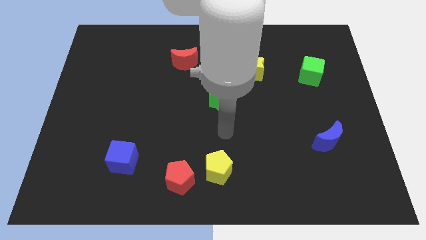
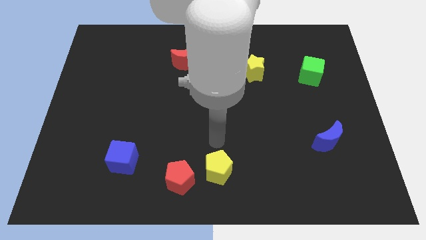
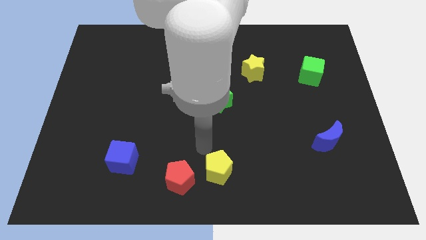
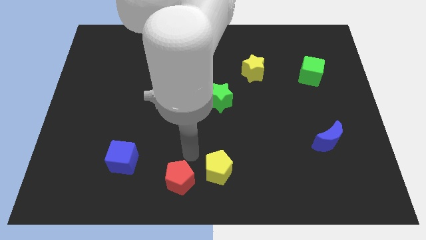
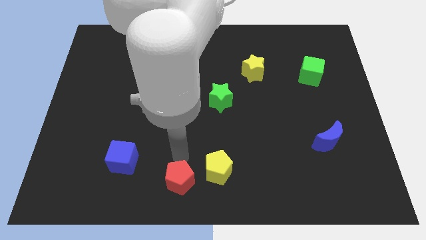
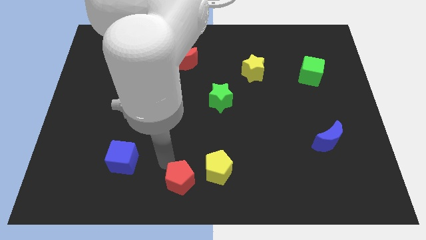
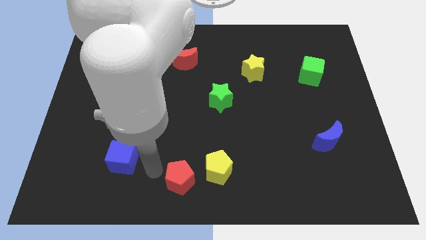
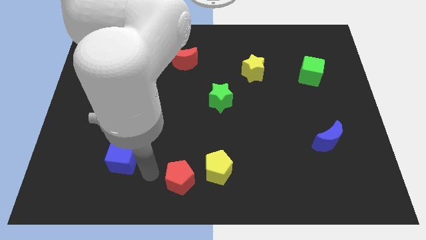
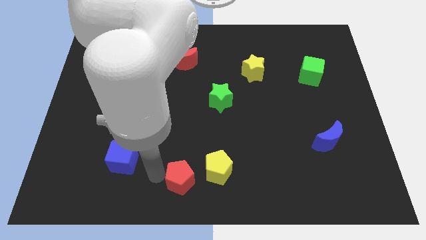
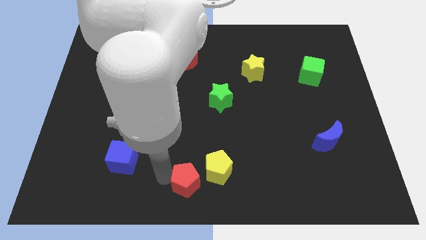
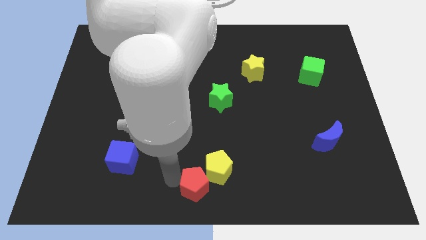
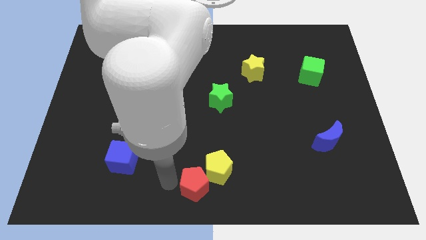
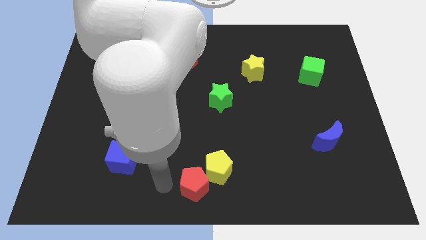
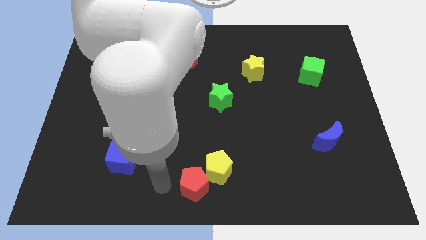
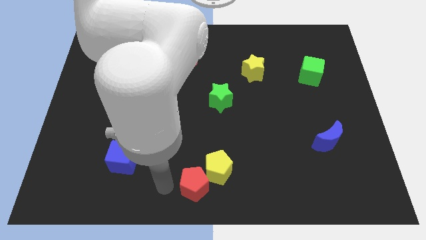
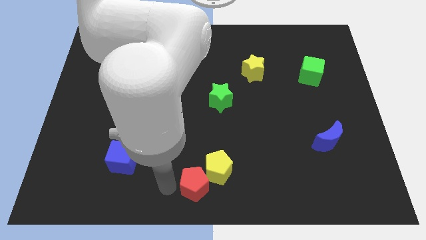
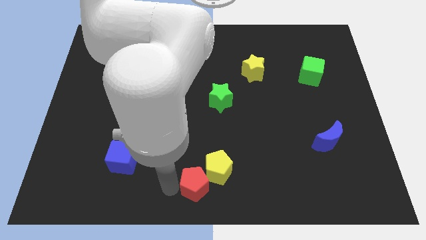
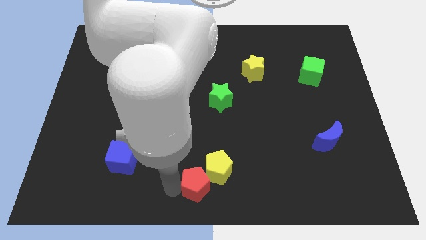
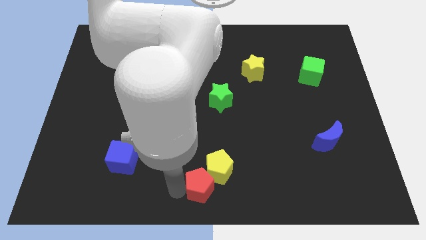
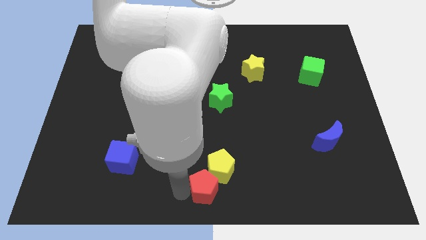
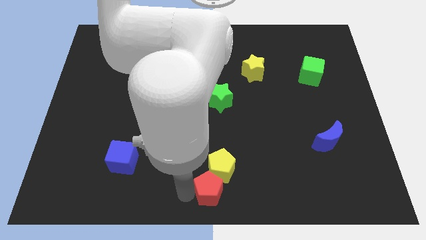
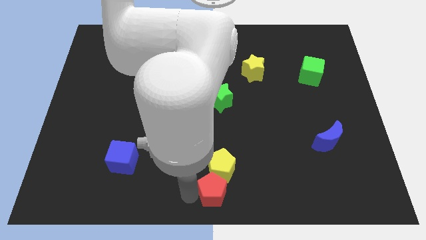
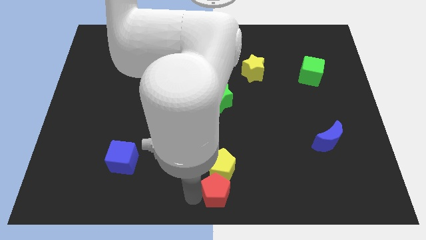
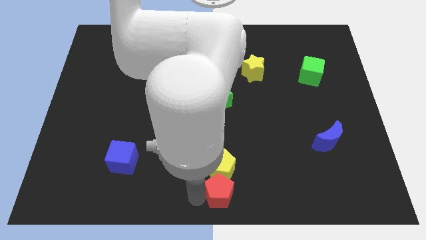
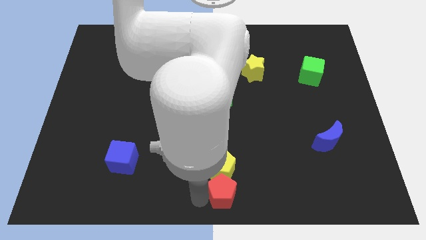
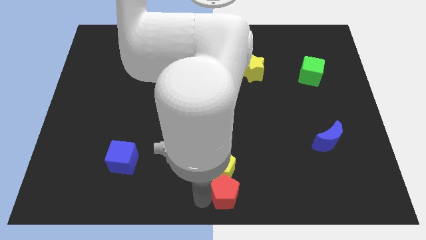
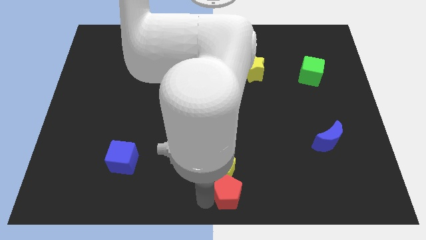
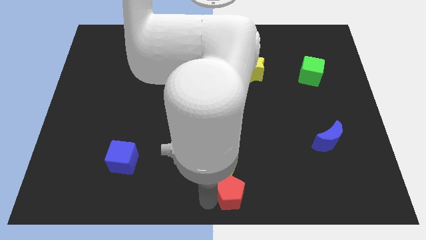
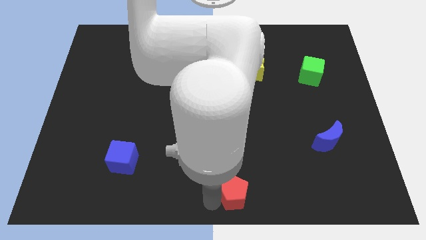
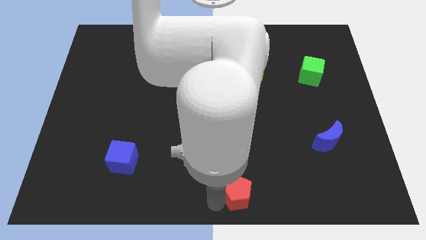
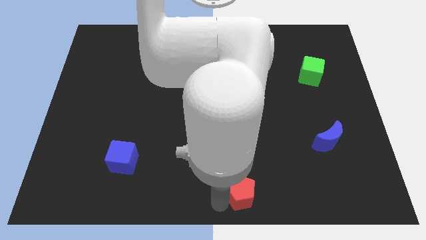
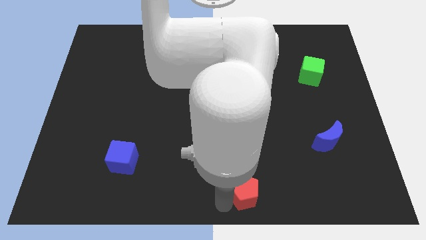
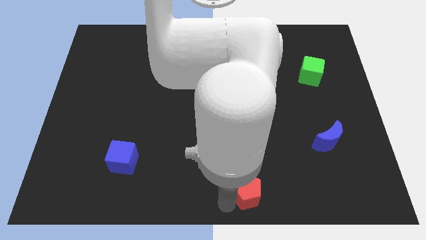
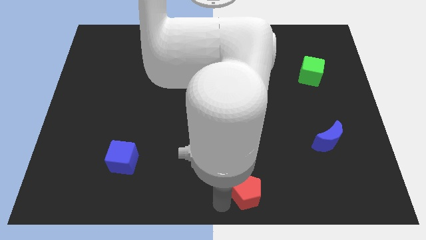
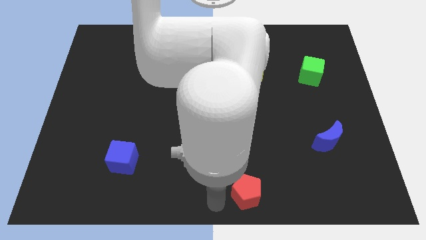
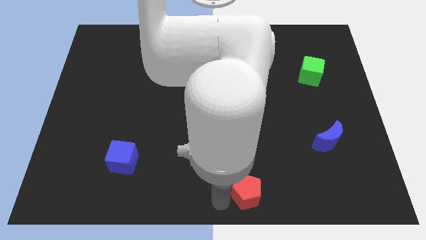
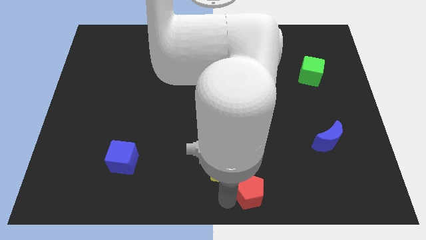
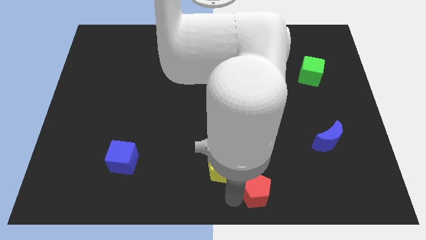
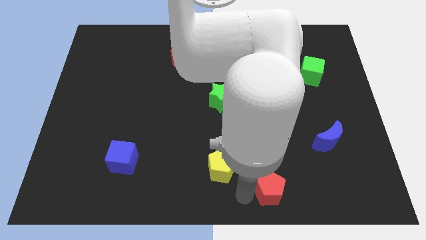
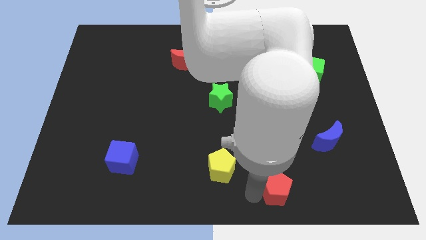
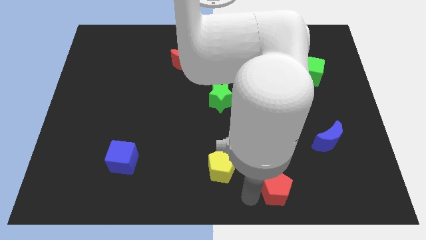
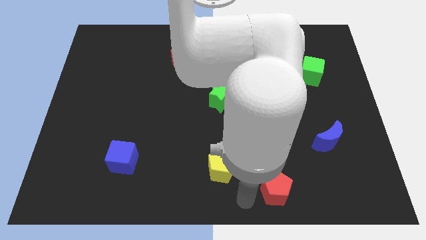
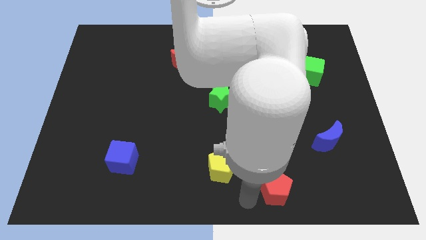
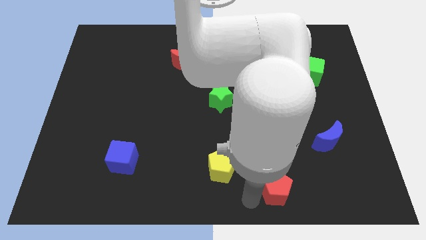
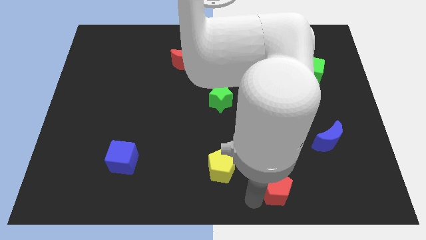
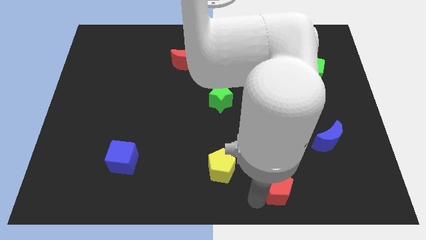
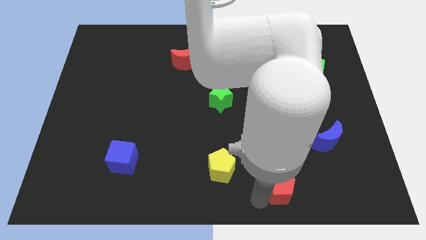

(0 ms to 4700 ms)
push the red pentagon to the right

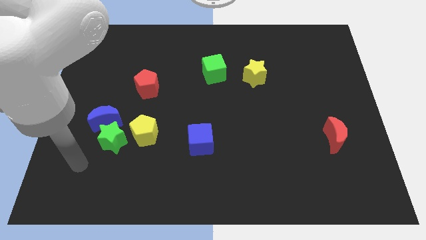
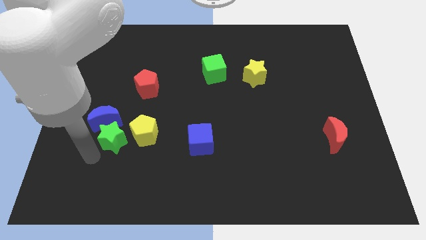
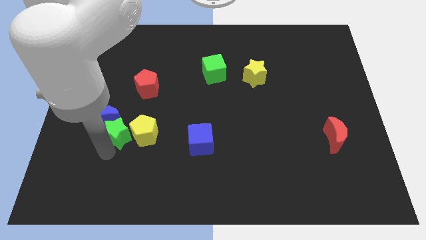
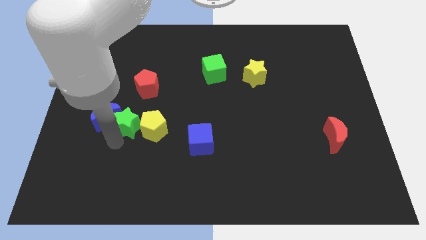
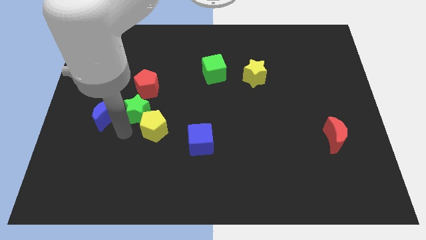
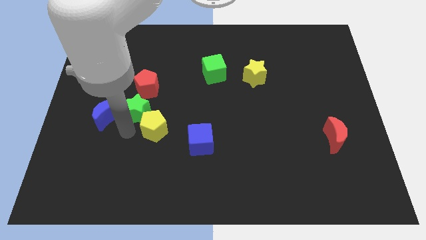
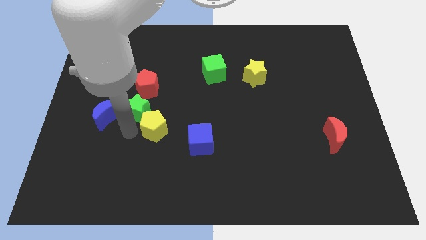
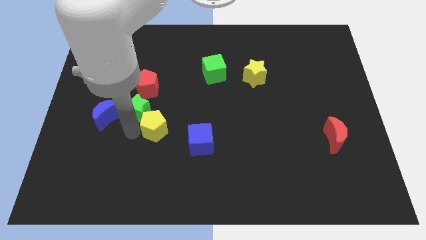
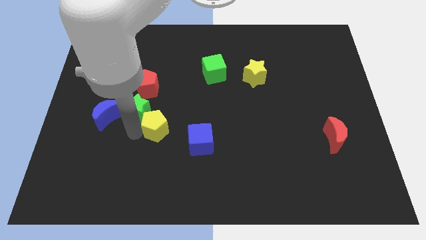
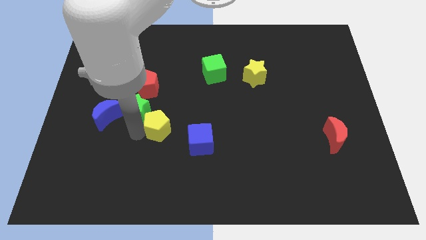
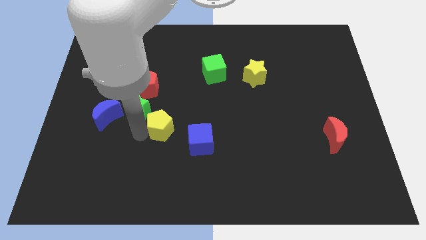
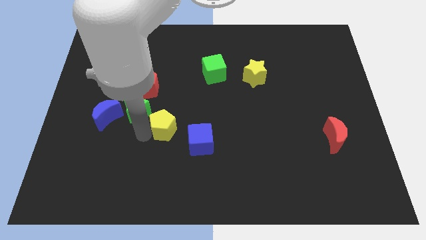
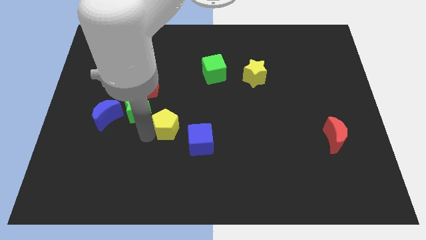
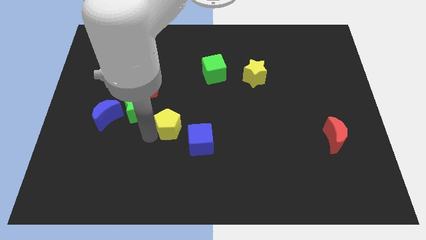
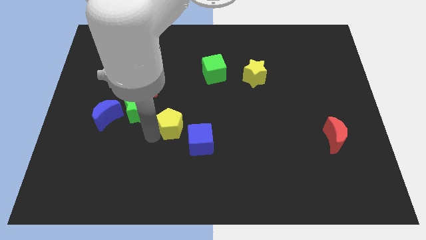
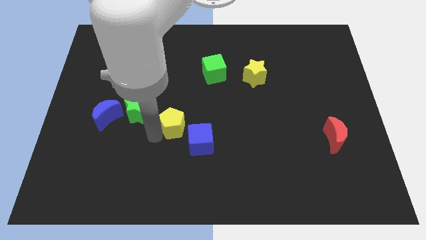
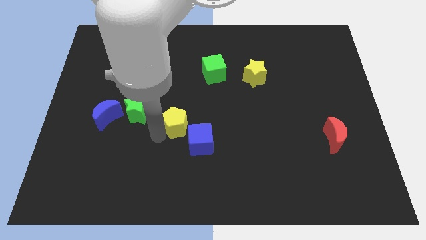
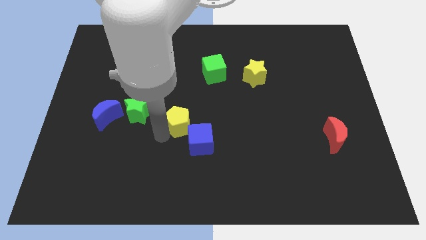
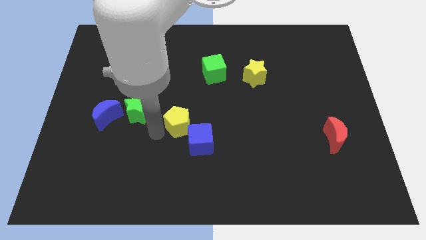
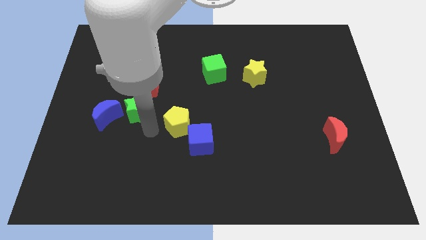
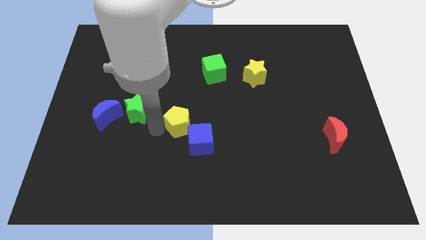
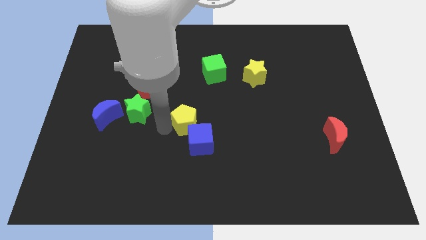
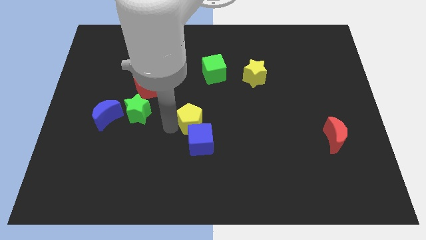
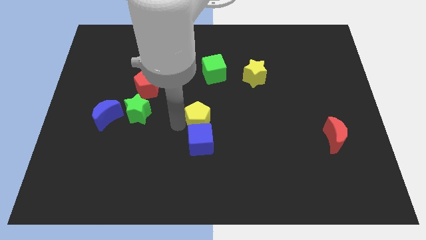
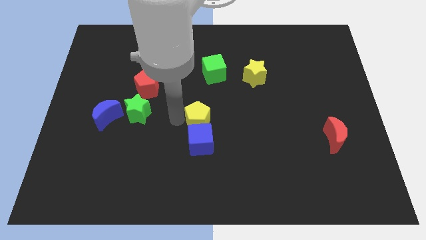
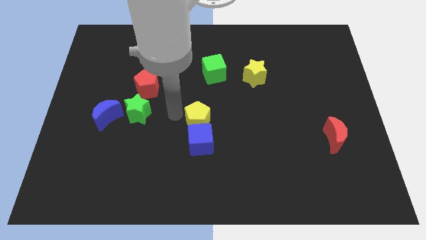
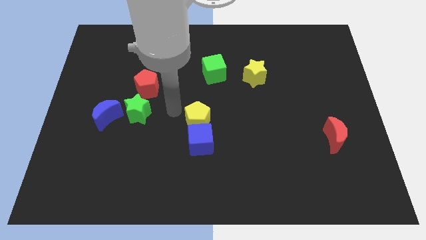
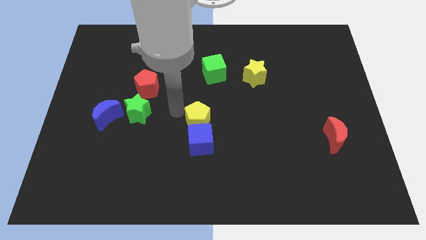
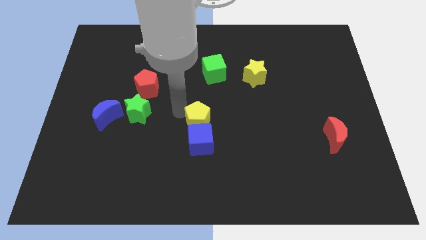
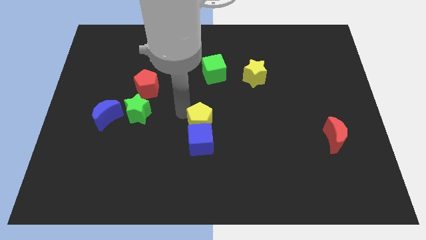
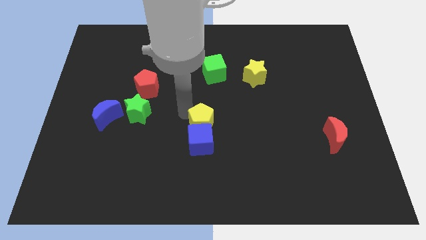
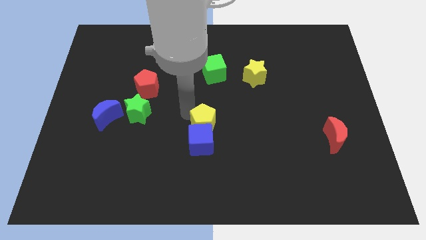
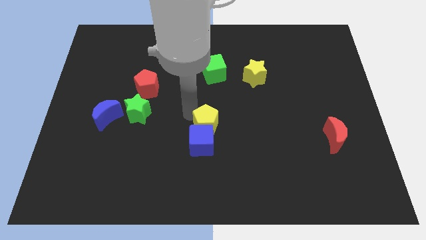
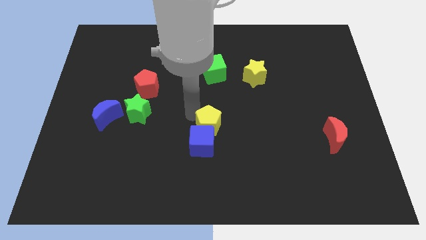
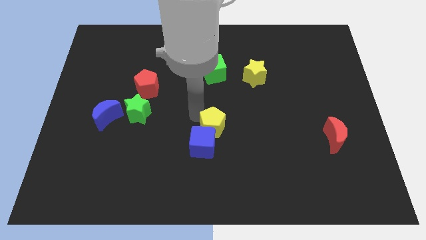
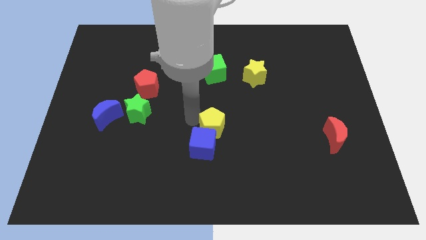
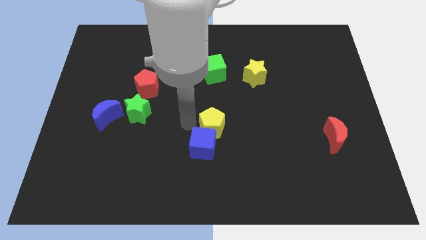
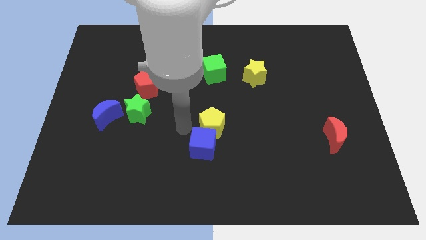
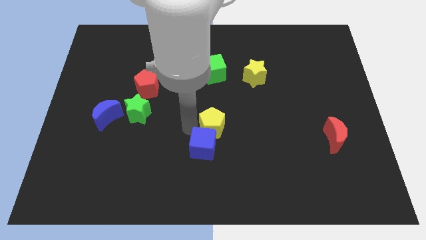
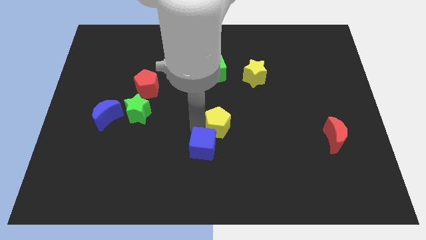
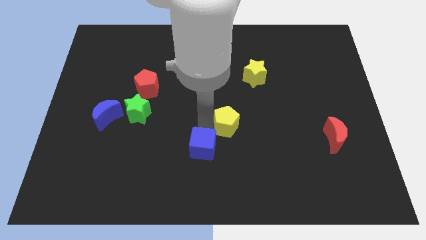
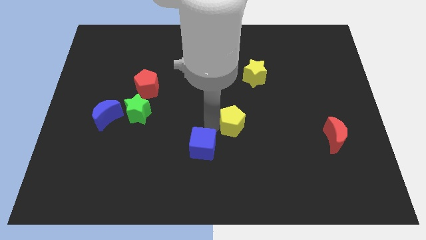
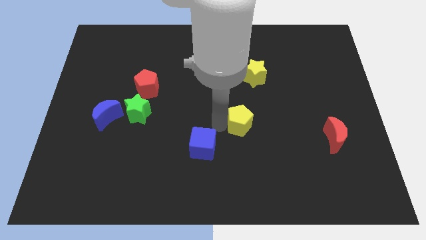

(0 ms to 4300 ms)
slide the yellow pentagon to the right
